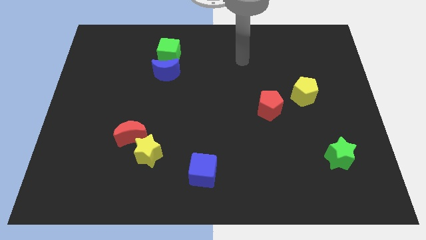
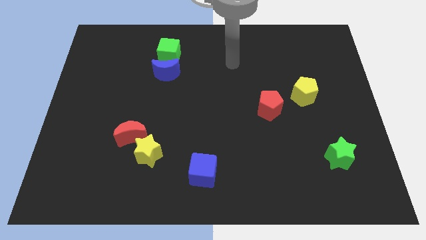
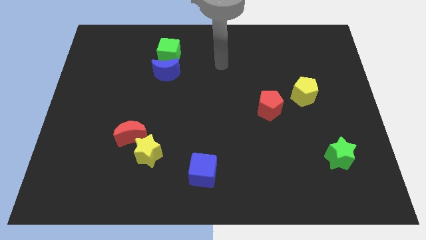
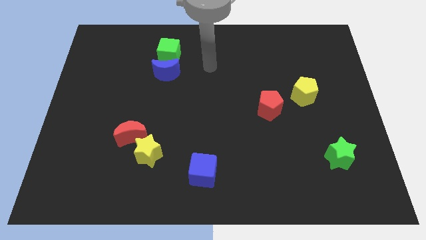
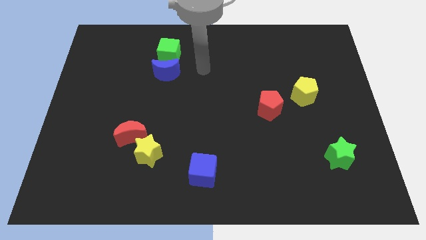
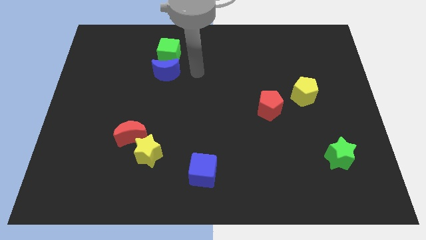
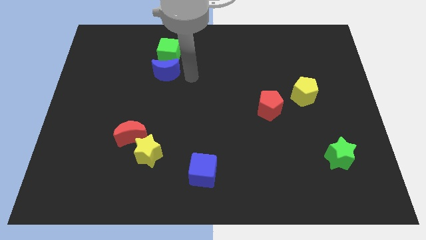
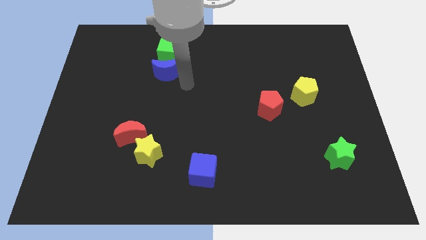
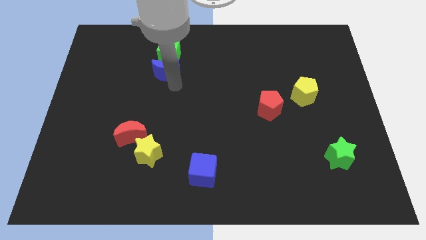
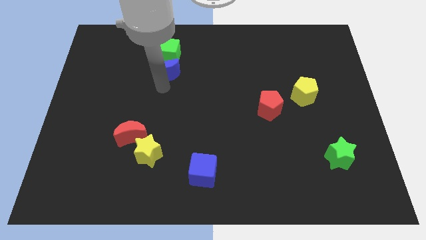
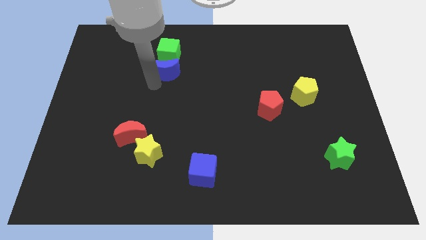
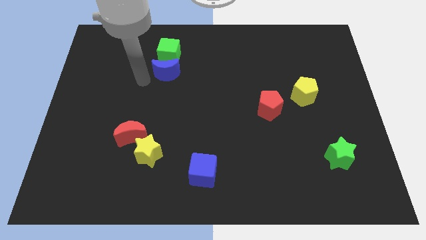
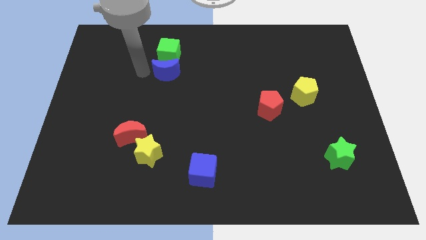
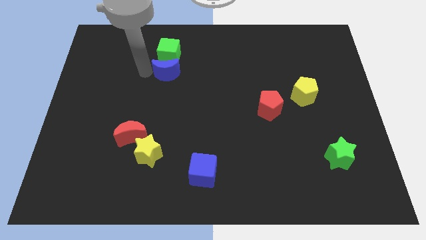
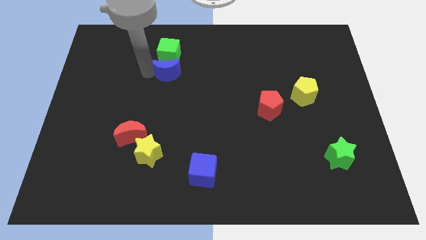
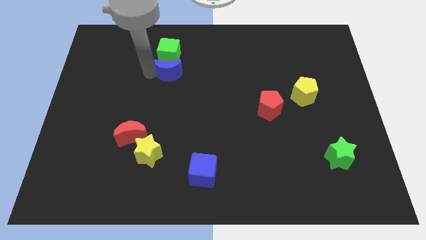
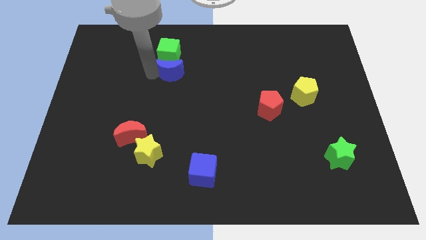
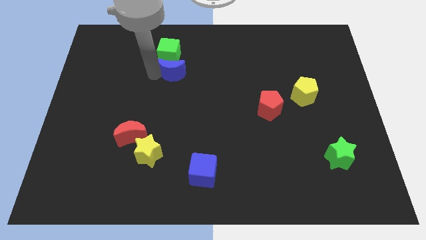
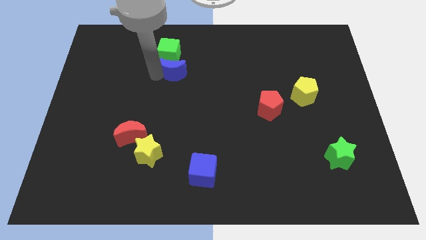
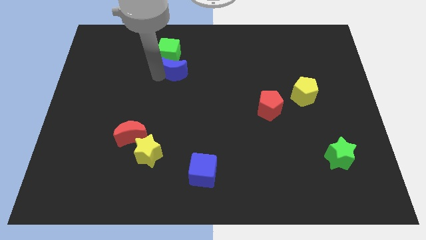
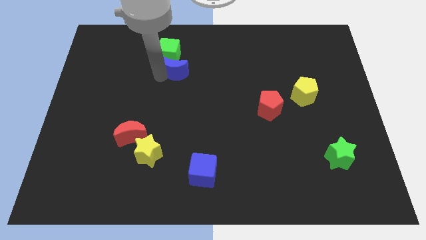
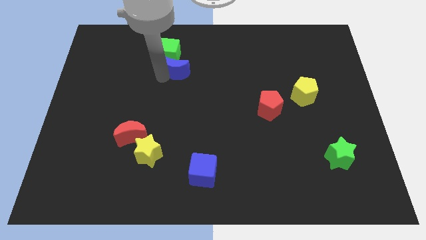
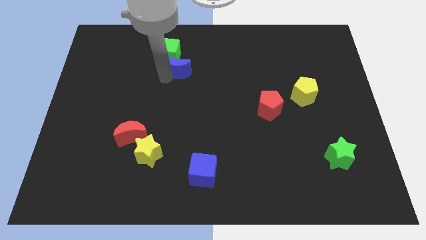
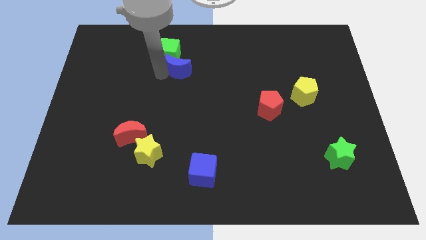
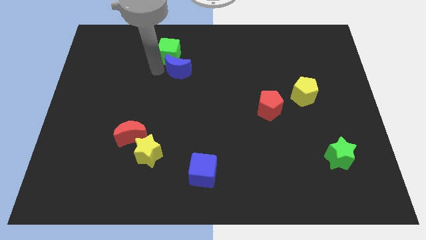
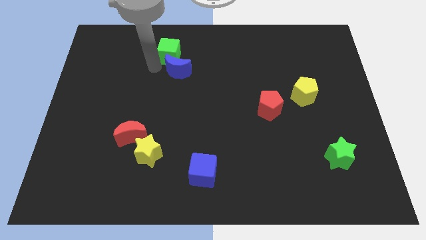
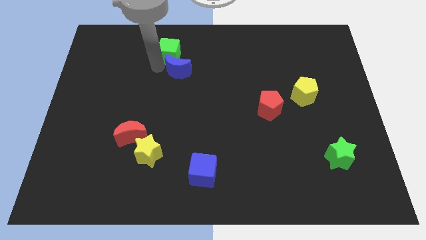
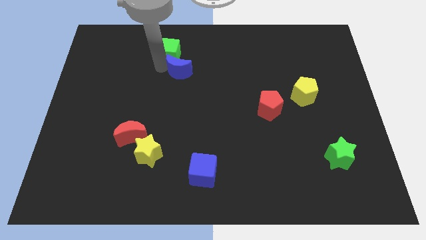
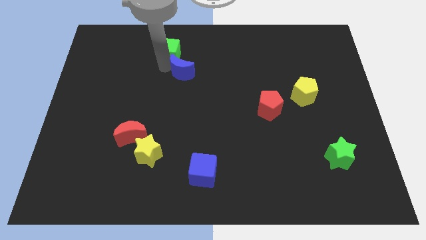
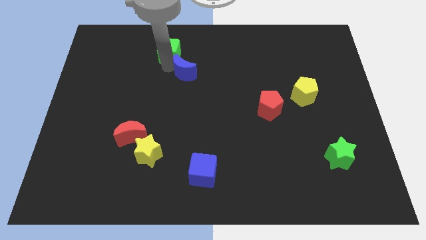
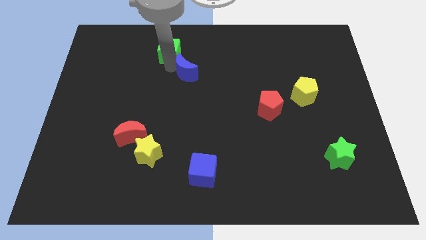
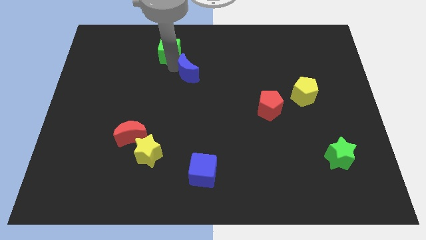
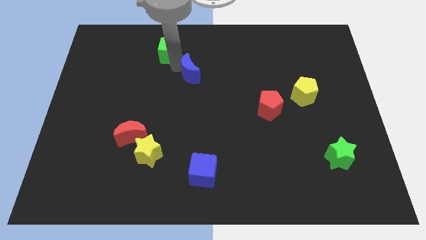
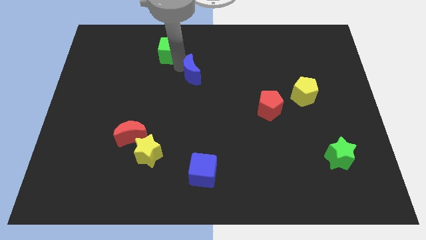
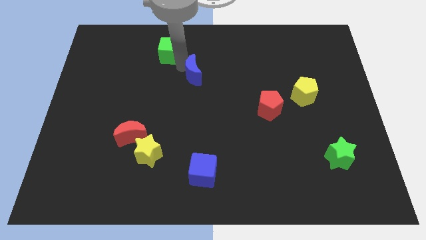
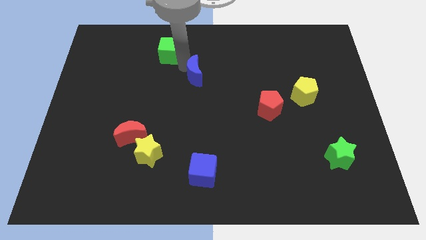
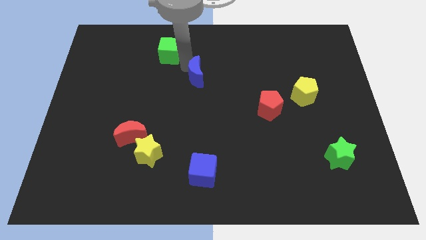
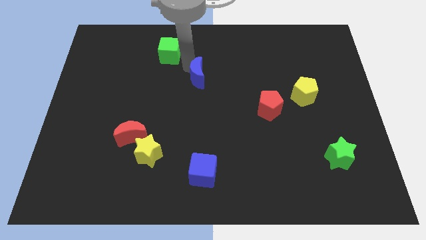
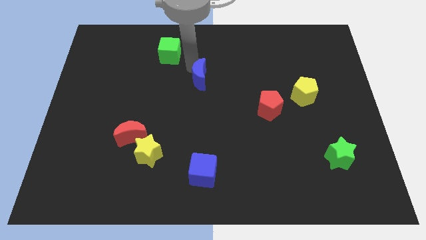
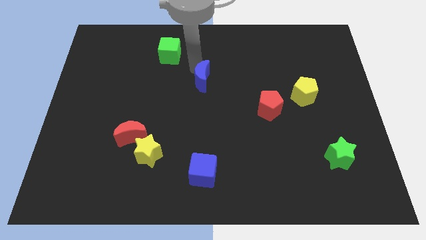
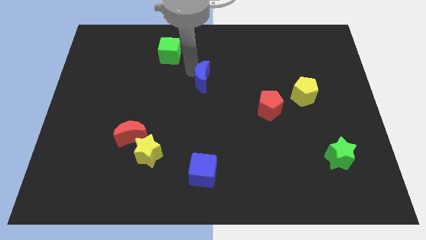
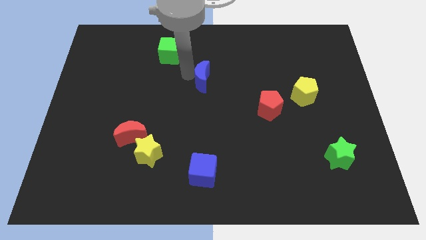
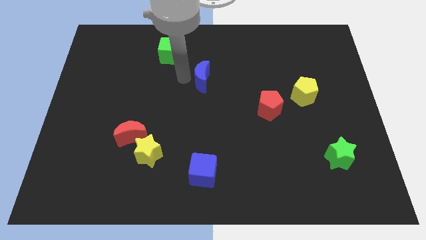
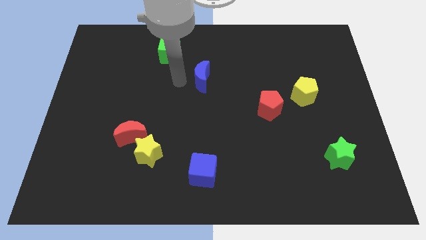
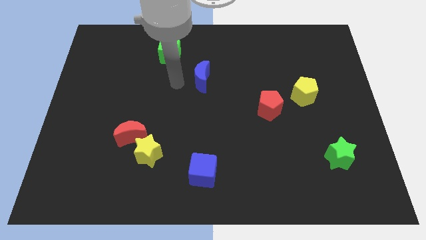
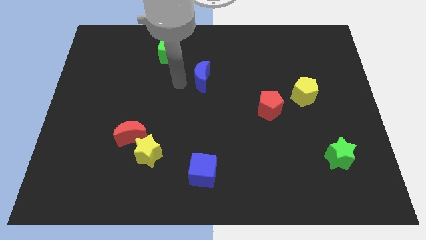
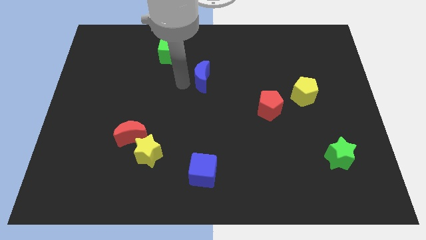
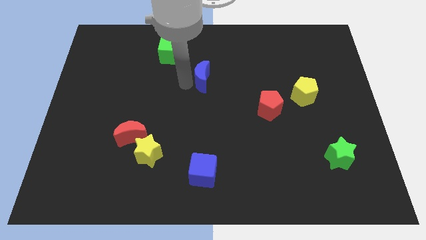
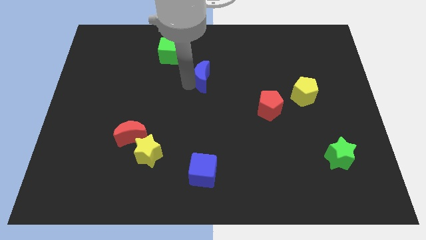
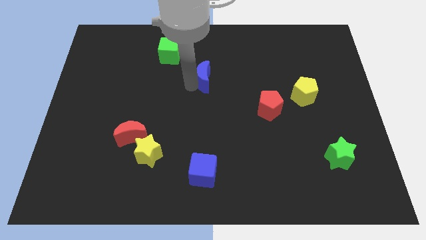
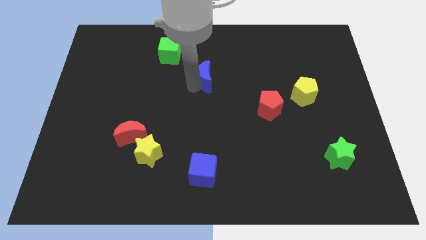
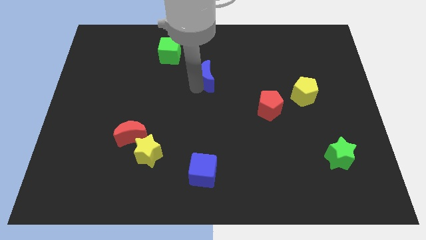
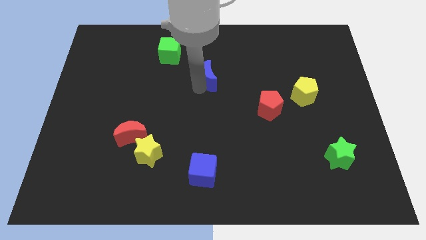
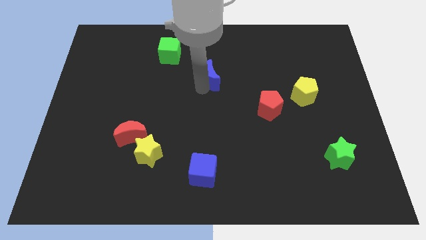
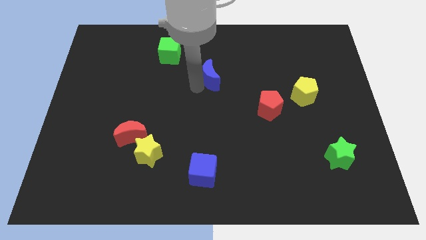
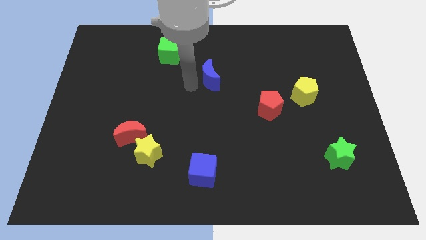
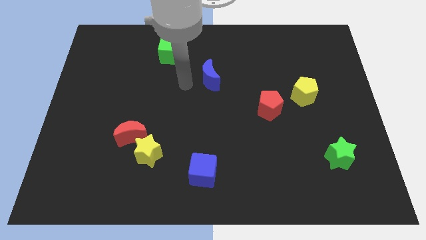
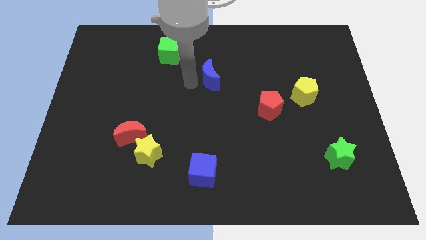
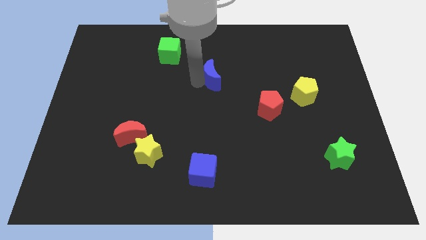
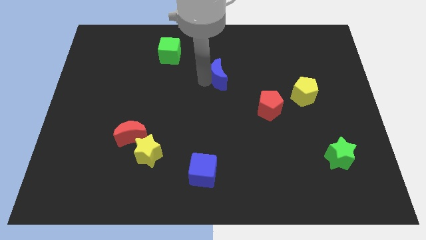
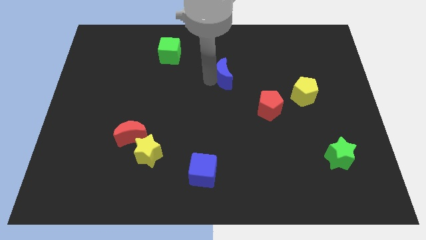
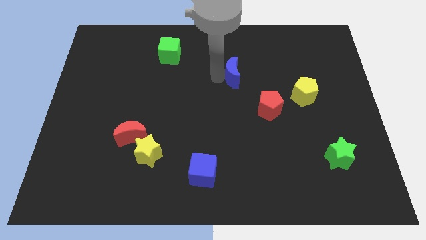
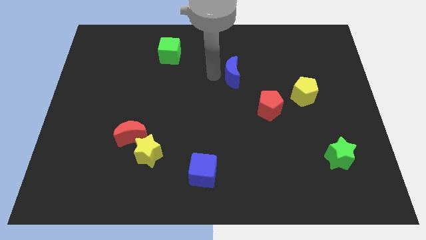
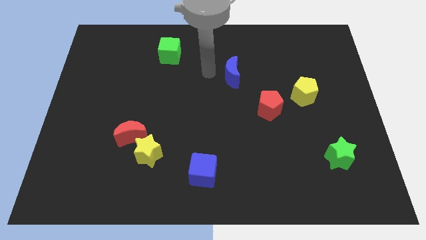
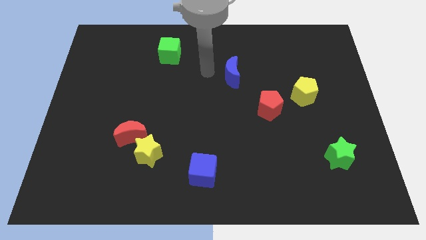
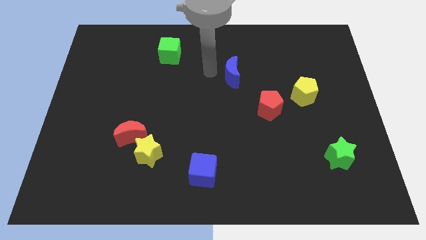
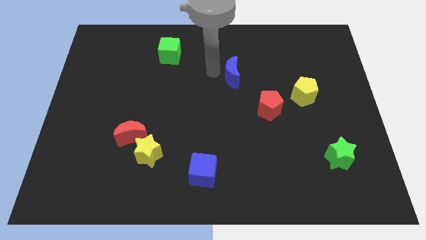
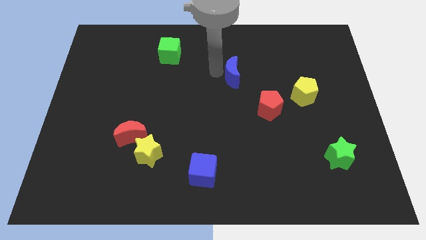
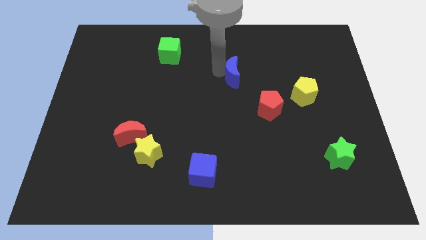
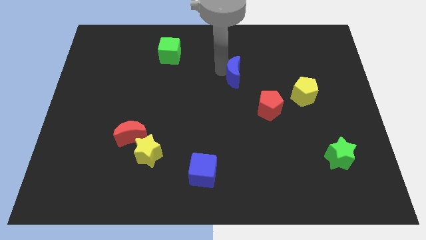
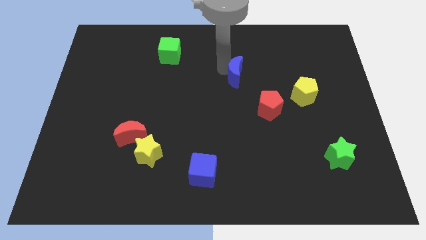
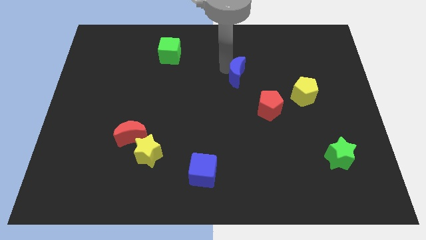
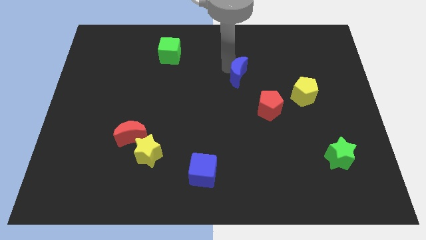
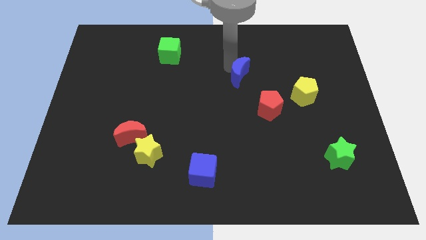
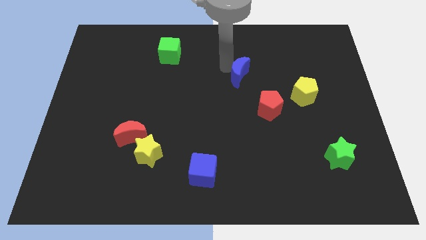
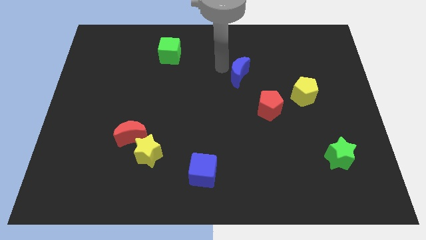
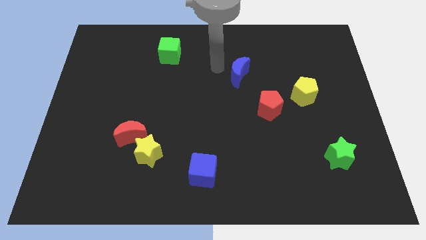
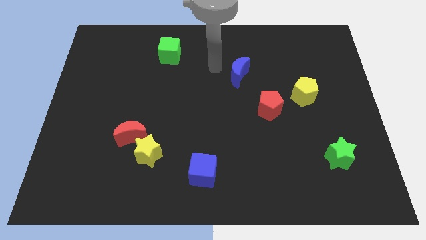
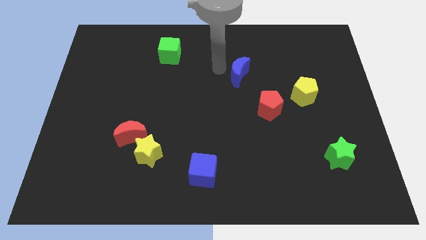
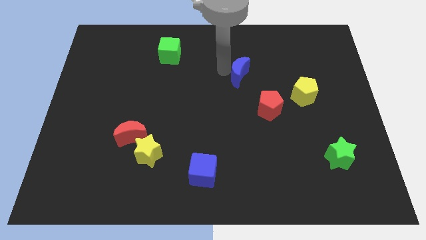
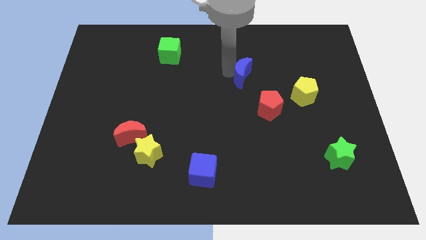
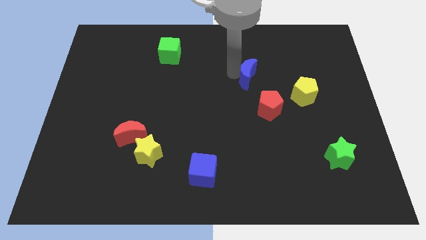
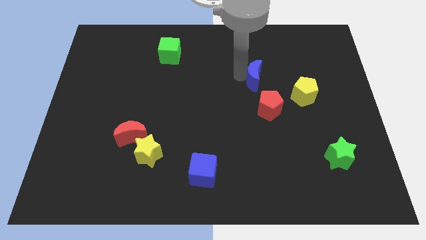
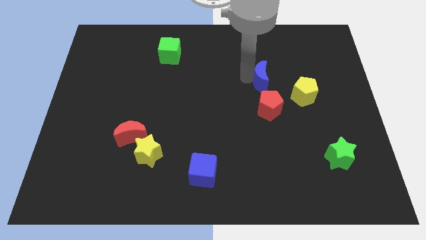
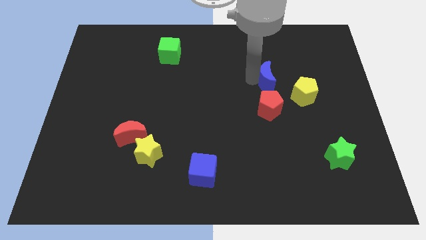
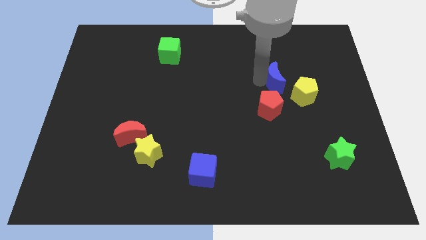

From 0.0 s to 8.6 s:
put the blue moon to the top right of the red pentagon
